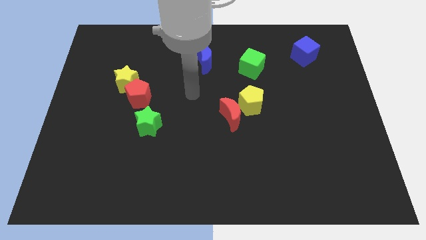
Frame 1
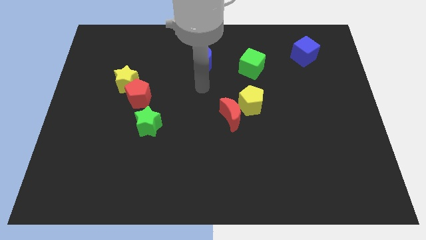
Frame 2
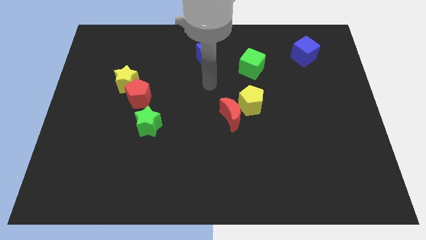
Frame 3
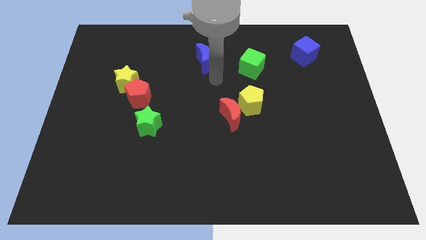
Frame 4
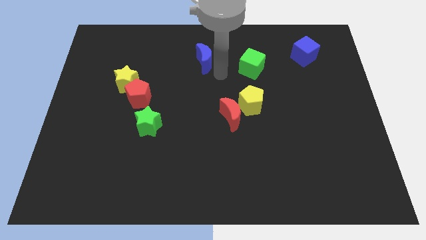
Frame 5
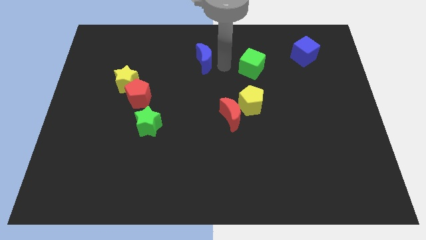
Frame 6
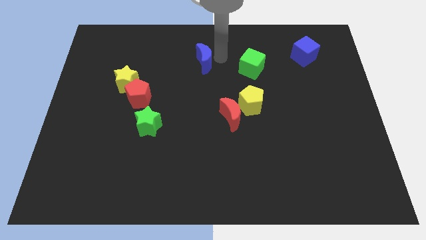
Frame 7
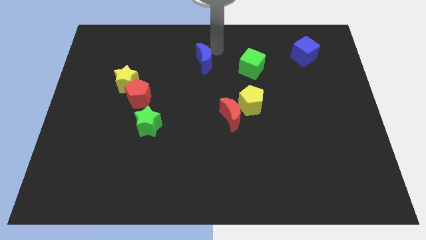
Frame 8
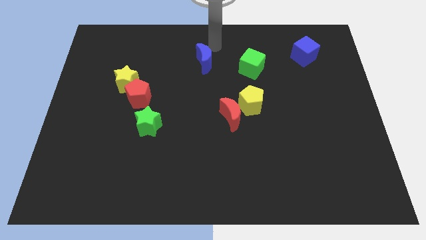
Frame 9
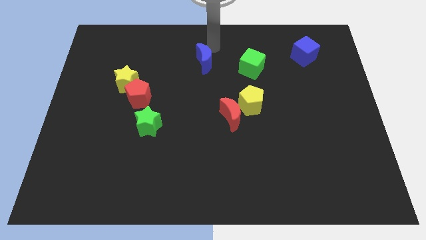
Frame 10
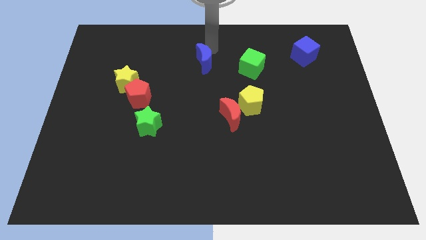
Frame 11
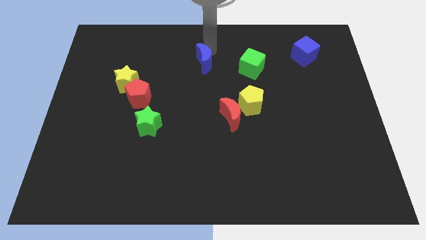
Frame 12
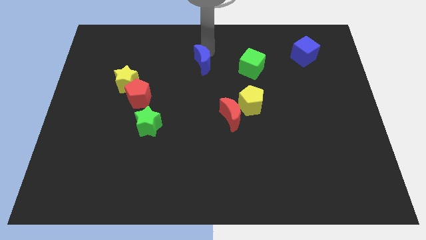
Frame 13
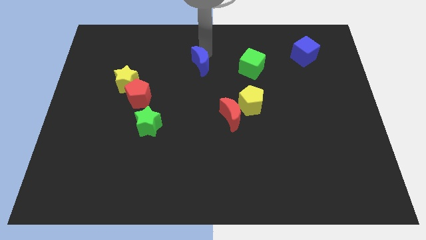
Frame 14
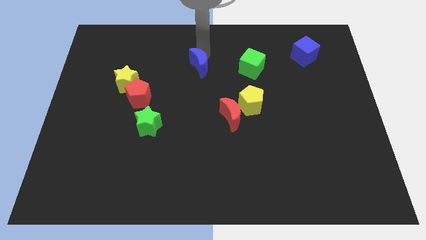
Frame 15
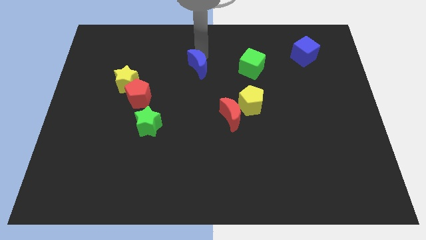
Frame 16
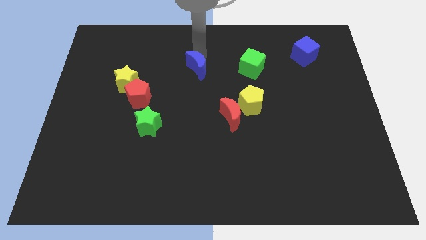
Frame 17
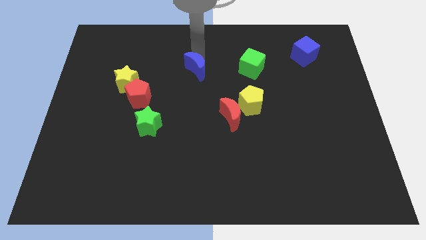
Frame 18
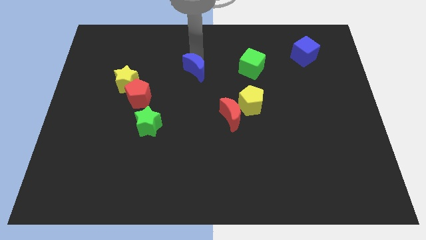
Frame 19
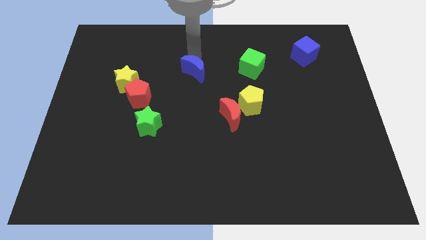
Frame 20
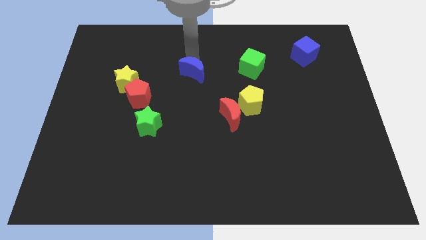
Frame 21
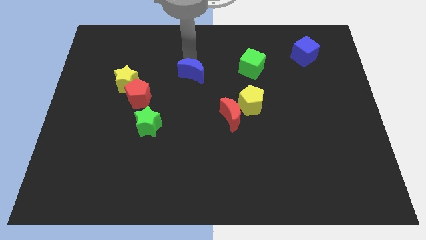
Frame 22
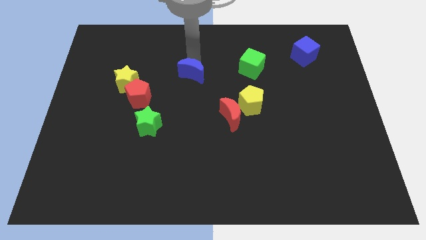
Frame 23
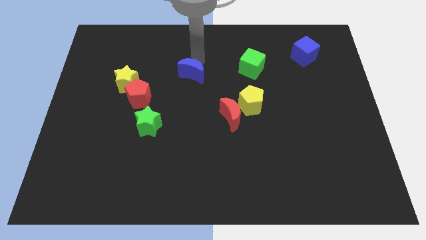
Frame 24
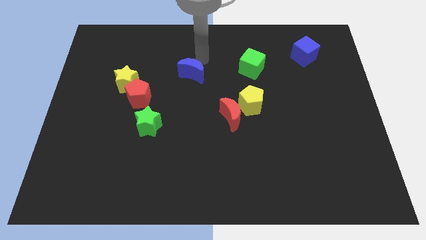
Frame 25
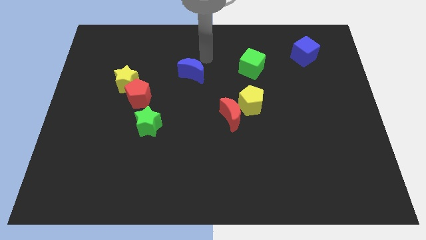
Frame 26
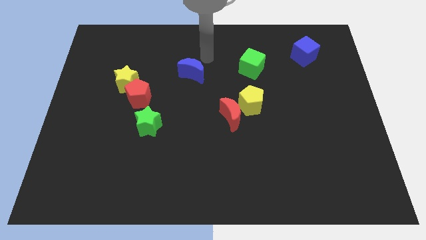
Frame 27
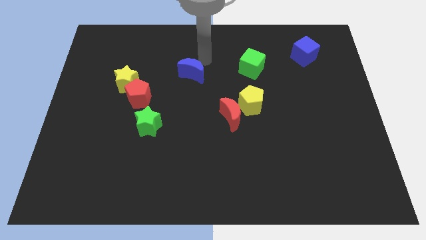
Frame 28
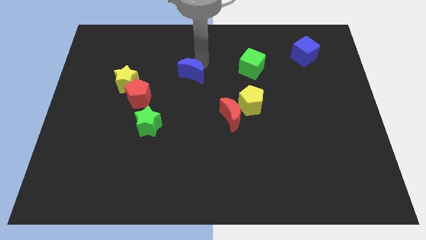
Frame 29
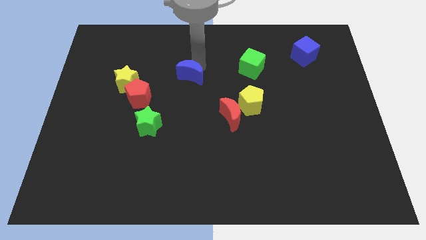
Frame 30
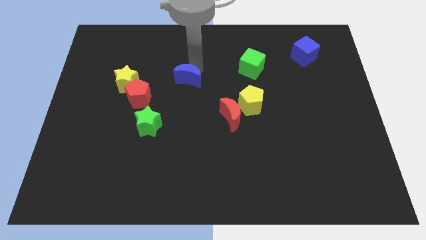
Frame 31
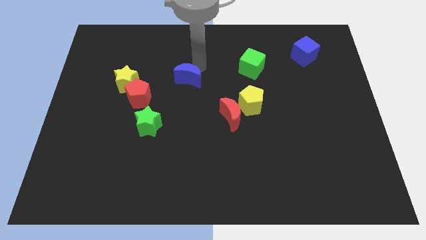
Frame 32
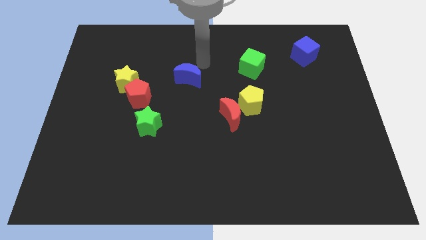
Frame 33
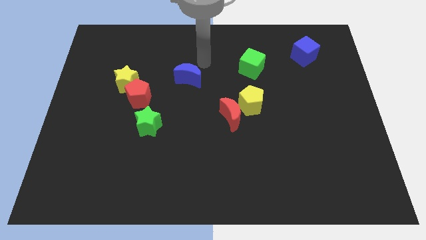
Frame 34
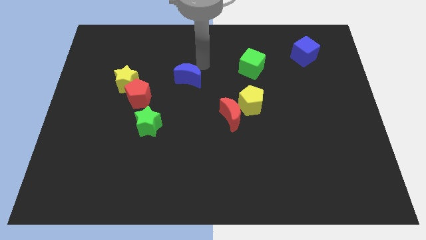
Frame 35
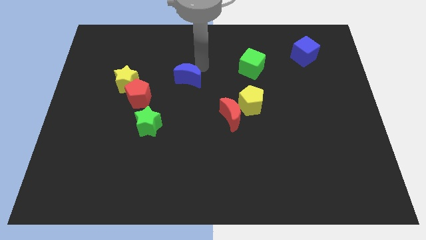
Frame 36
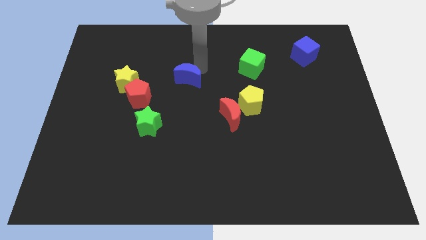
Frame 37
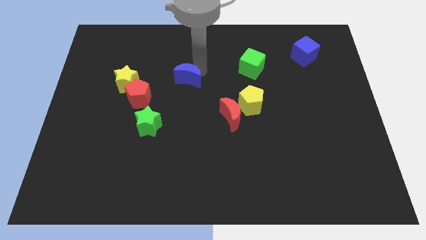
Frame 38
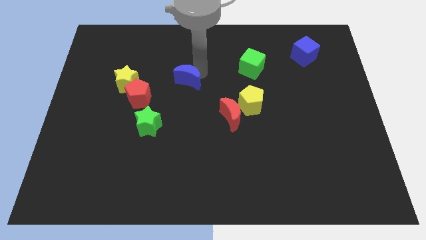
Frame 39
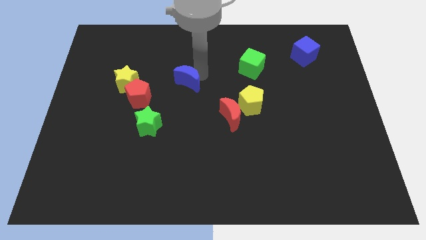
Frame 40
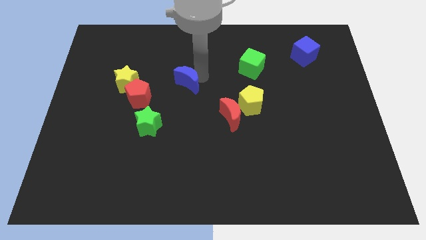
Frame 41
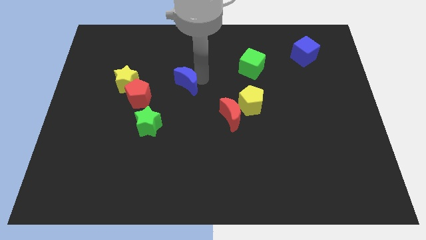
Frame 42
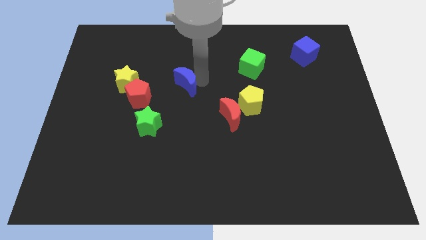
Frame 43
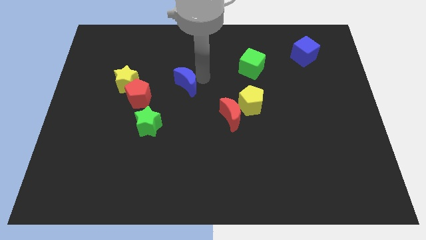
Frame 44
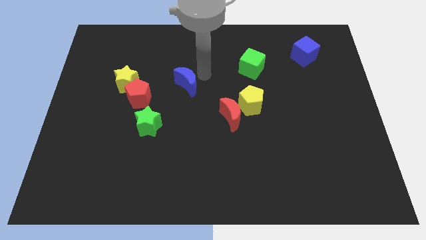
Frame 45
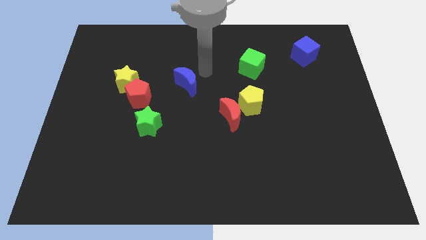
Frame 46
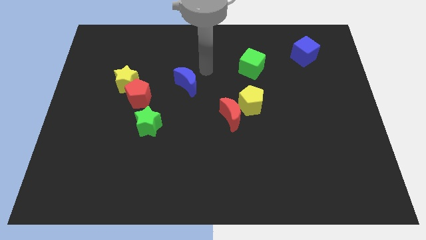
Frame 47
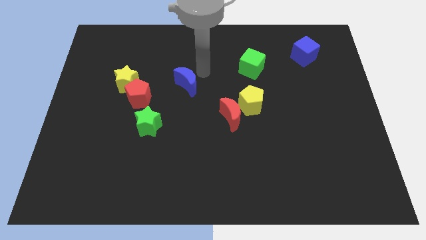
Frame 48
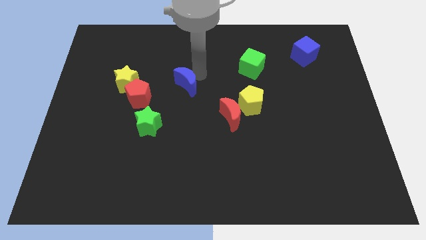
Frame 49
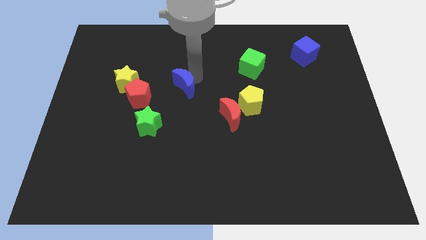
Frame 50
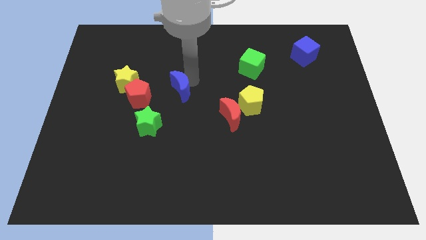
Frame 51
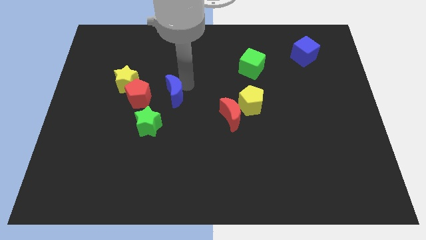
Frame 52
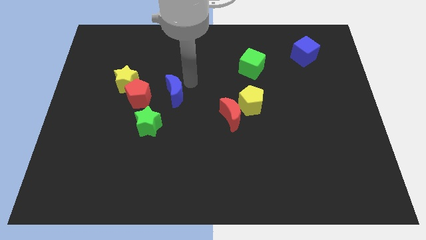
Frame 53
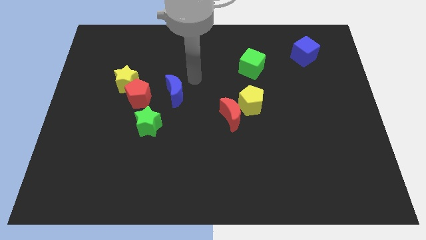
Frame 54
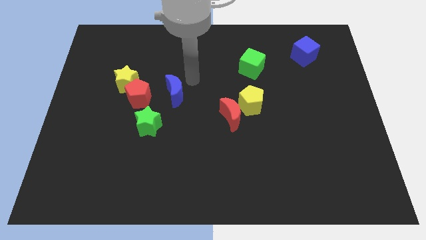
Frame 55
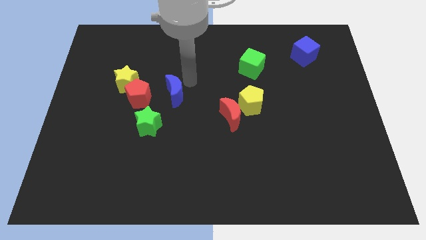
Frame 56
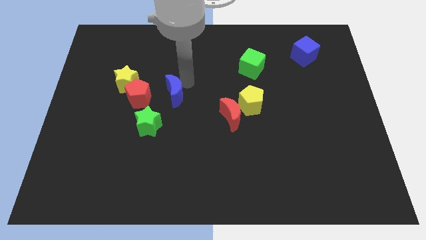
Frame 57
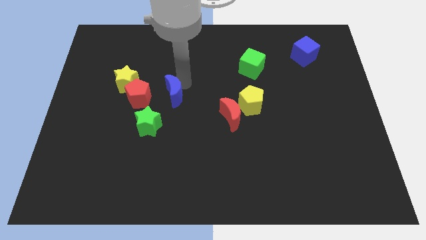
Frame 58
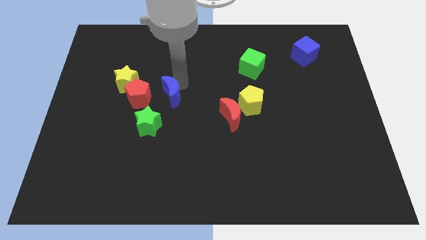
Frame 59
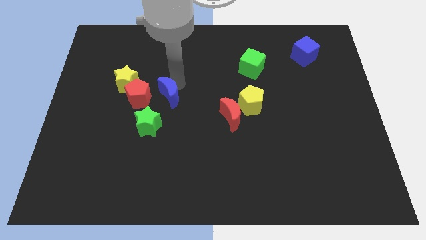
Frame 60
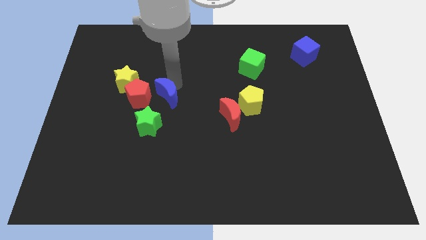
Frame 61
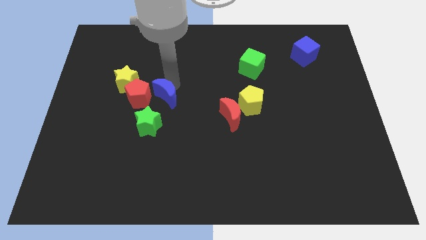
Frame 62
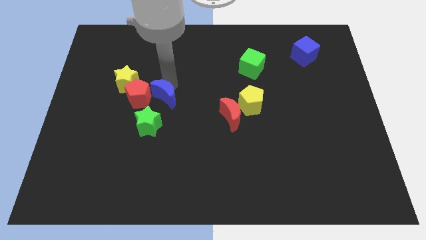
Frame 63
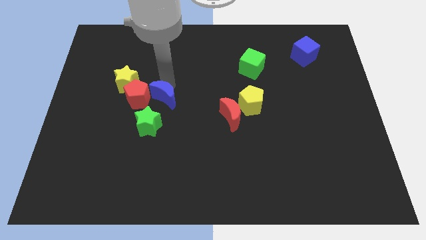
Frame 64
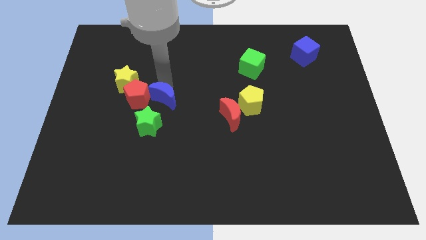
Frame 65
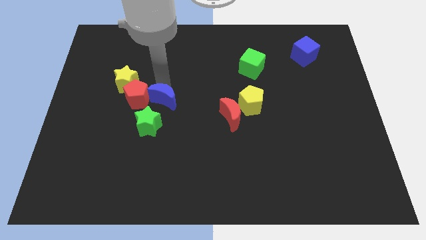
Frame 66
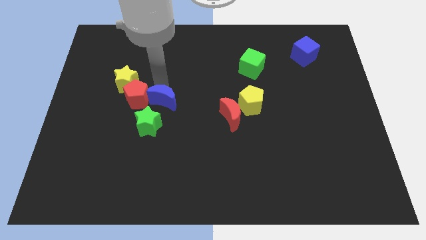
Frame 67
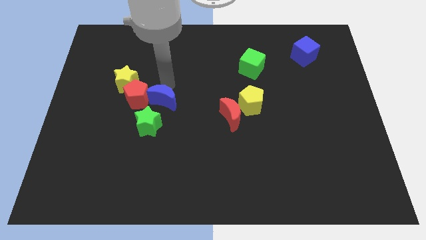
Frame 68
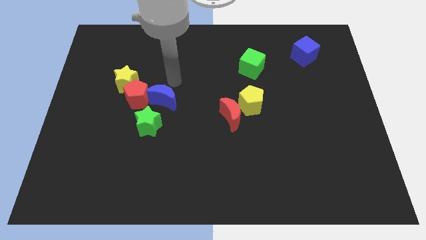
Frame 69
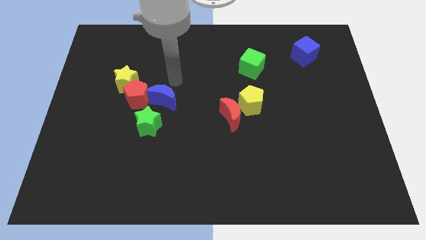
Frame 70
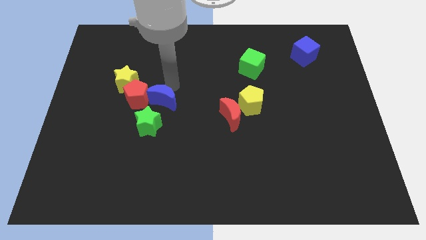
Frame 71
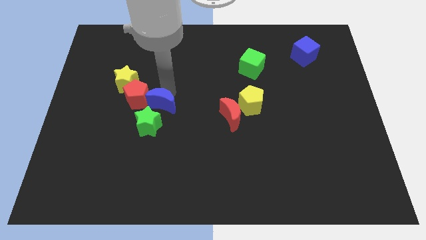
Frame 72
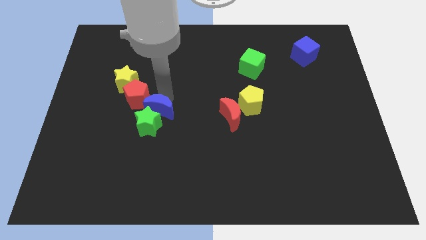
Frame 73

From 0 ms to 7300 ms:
slide the blue moon next to the green star

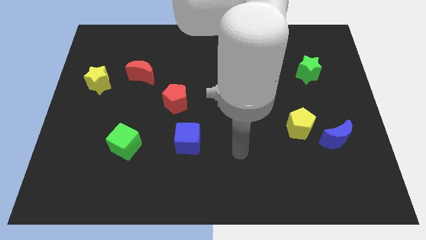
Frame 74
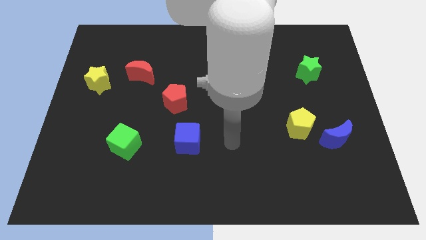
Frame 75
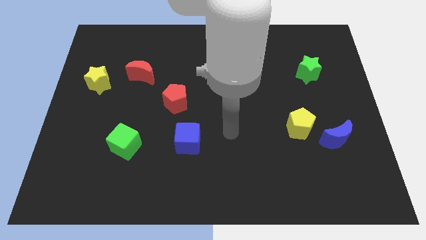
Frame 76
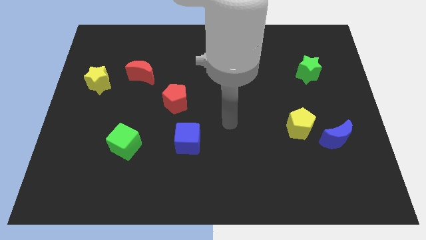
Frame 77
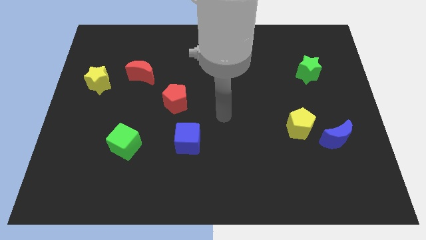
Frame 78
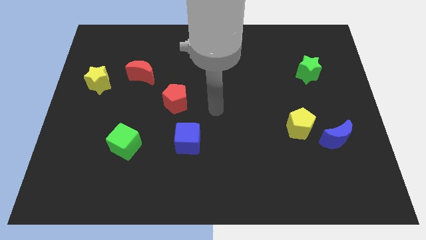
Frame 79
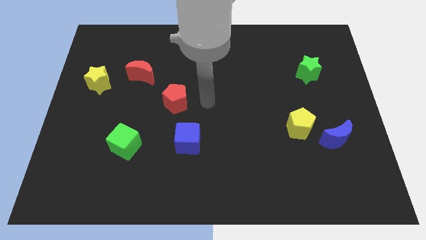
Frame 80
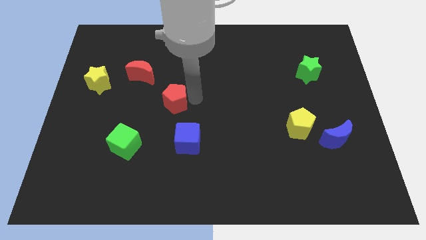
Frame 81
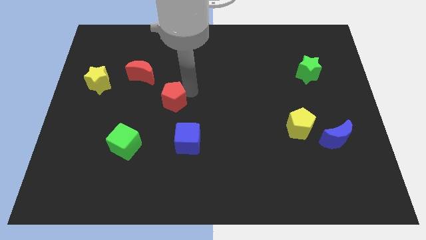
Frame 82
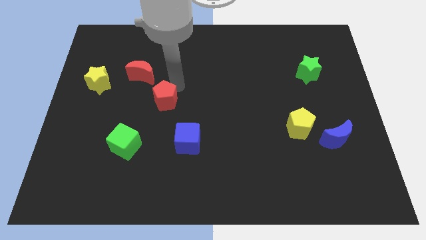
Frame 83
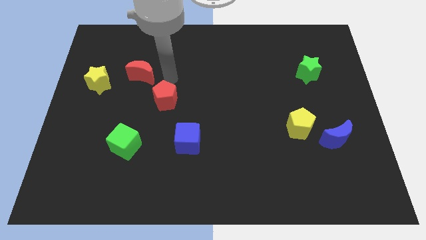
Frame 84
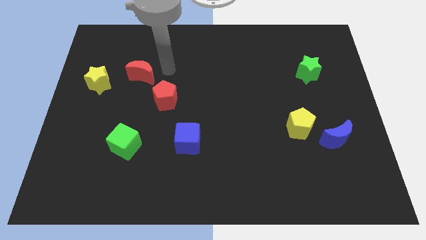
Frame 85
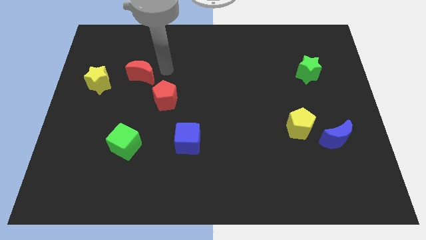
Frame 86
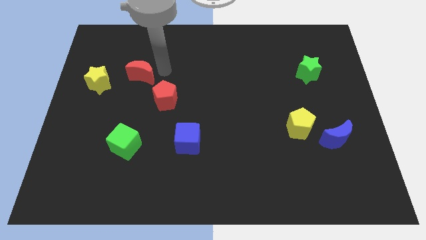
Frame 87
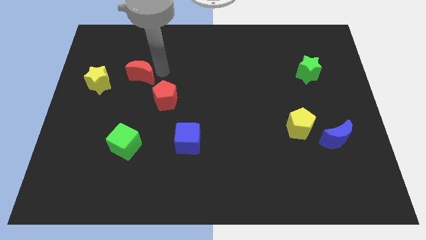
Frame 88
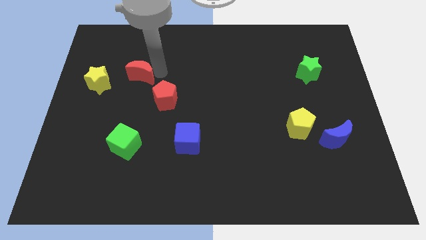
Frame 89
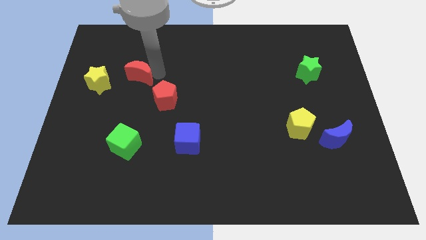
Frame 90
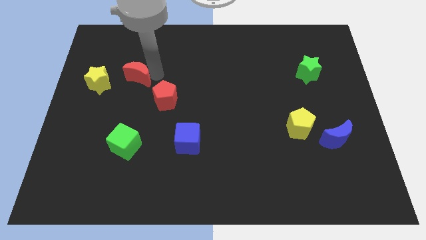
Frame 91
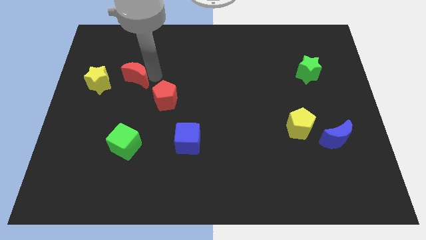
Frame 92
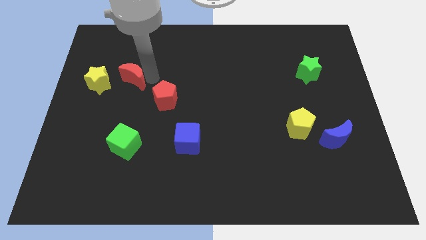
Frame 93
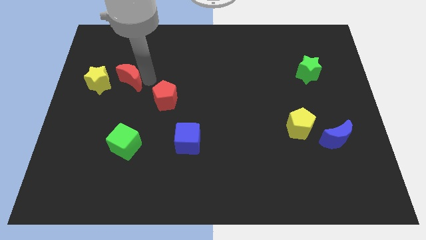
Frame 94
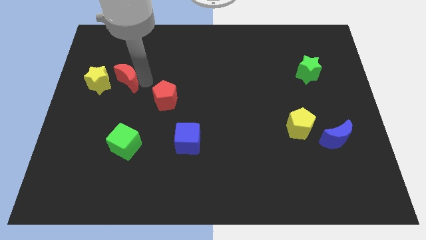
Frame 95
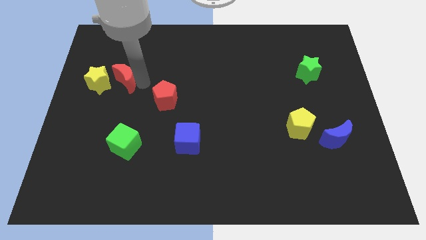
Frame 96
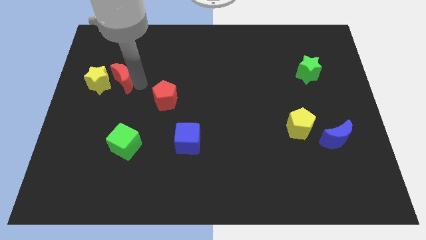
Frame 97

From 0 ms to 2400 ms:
push the red moon close to the yellow star
